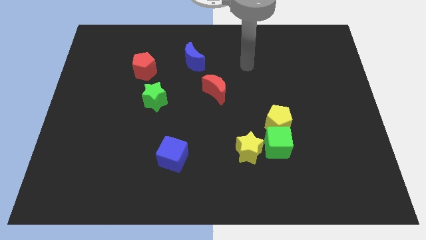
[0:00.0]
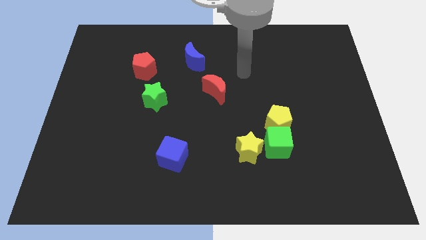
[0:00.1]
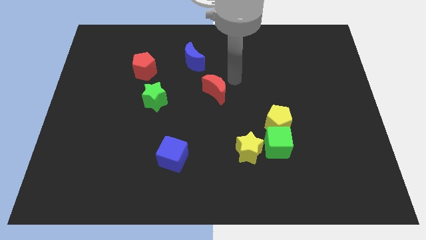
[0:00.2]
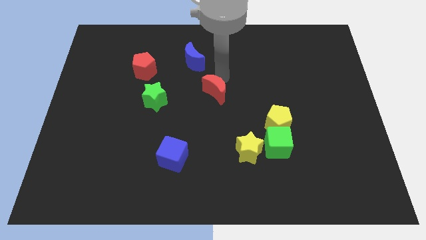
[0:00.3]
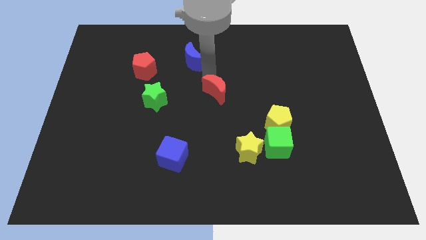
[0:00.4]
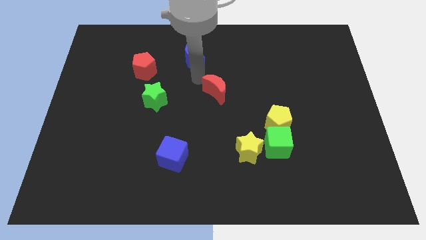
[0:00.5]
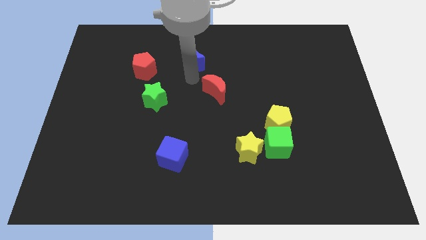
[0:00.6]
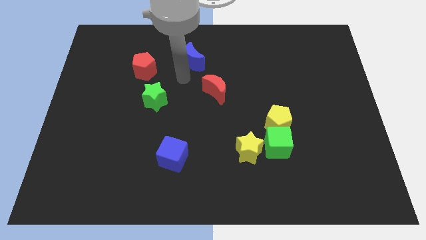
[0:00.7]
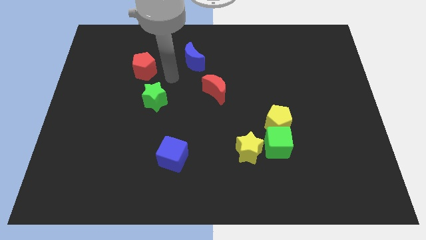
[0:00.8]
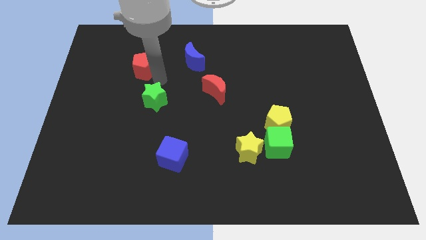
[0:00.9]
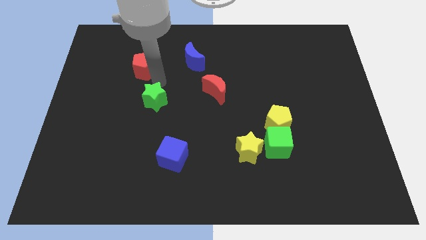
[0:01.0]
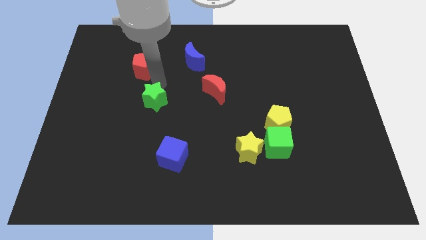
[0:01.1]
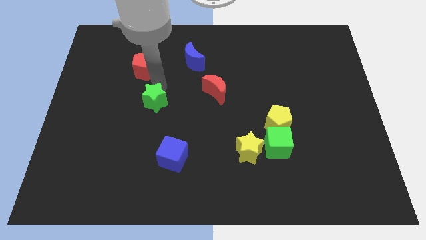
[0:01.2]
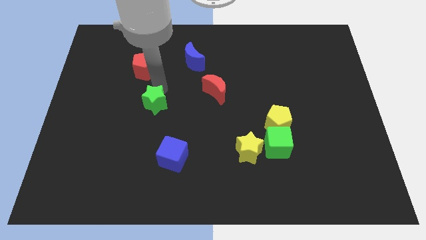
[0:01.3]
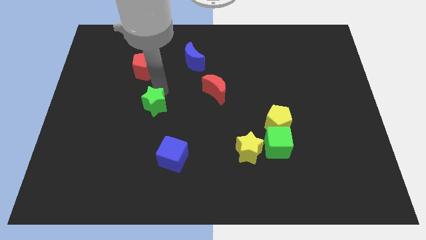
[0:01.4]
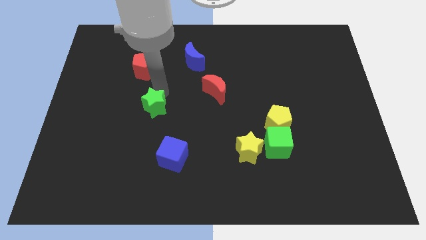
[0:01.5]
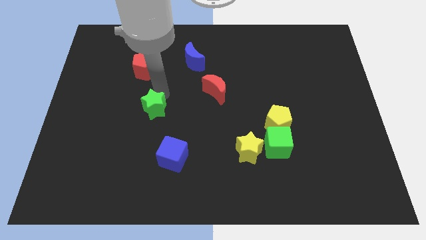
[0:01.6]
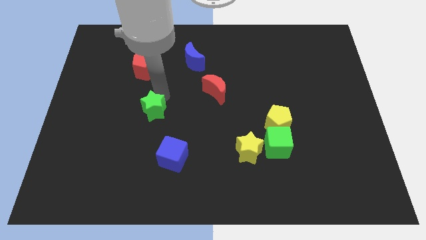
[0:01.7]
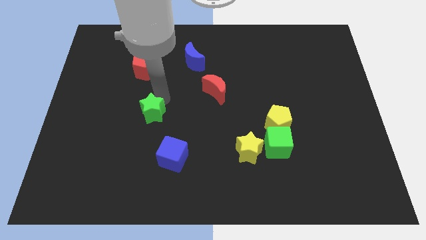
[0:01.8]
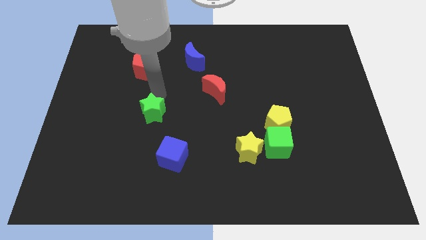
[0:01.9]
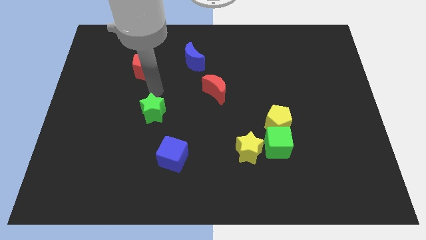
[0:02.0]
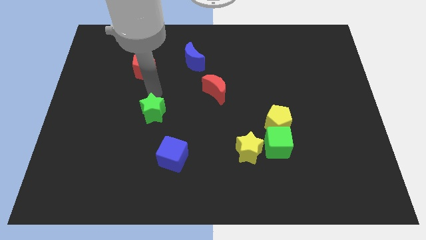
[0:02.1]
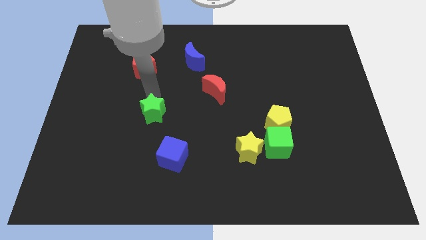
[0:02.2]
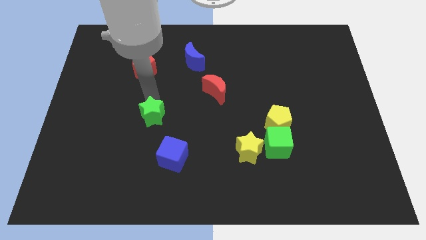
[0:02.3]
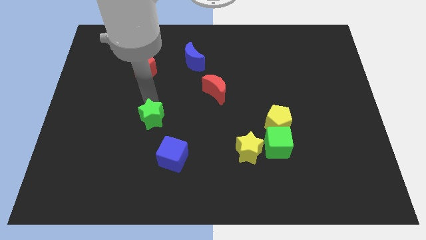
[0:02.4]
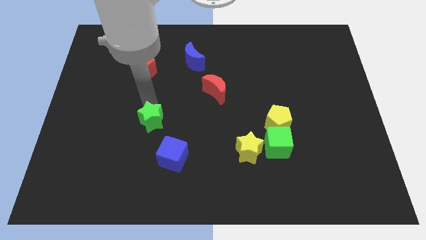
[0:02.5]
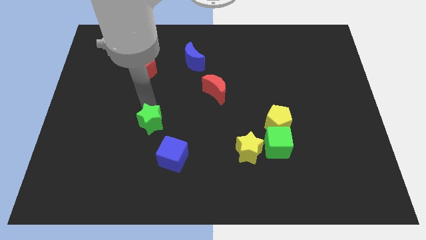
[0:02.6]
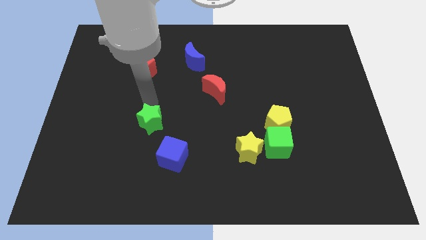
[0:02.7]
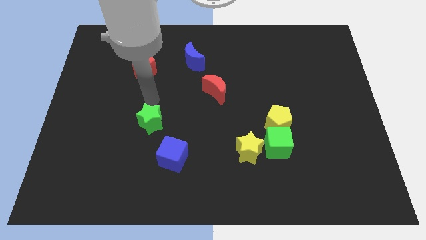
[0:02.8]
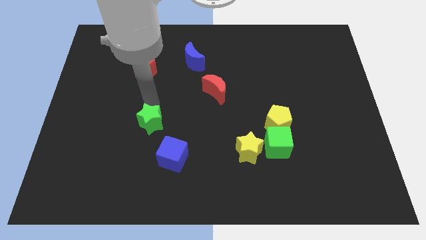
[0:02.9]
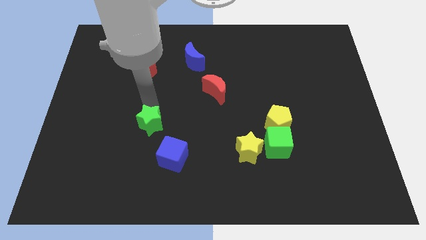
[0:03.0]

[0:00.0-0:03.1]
move the green star a little bit downwards

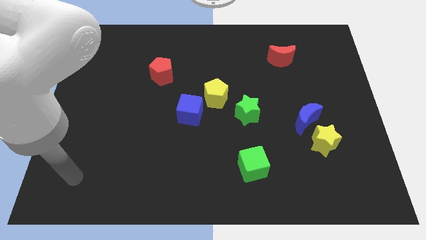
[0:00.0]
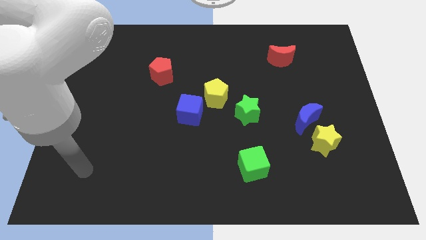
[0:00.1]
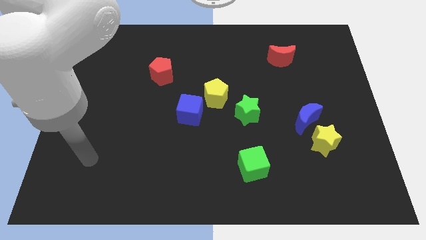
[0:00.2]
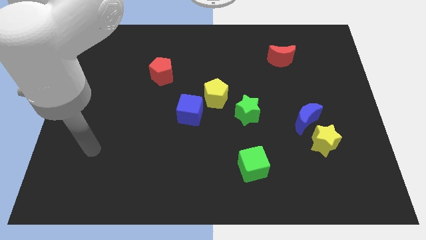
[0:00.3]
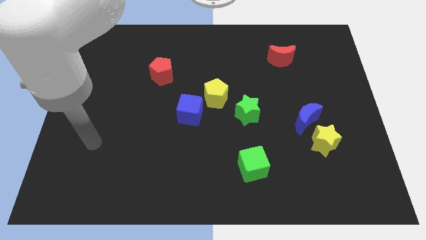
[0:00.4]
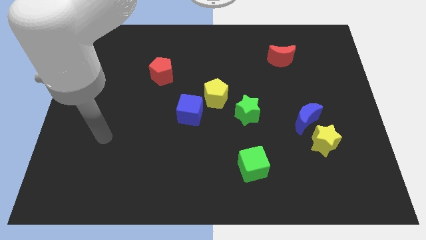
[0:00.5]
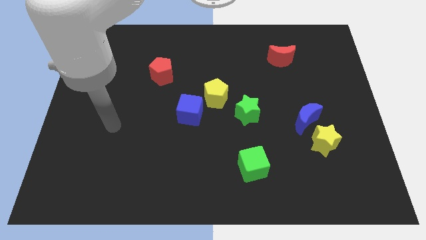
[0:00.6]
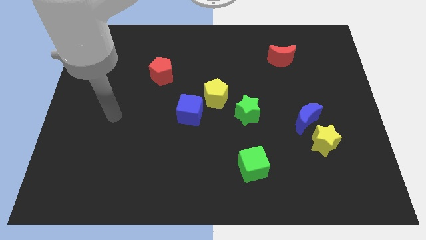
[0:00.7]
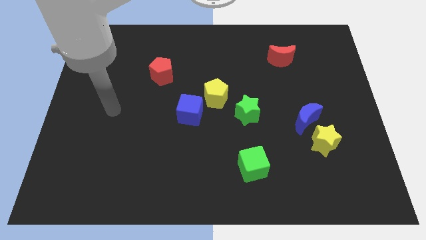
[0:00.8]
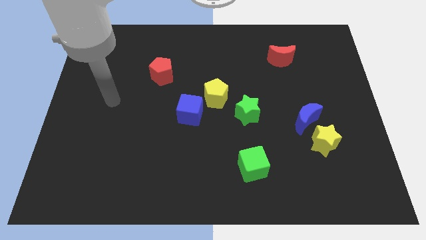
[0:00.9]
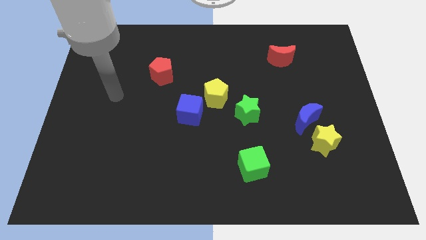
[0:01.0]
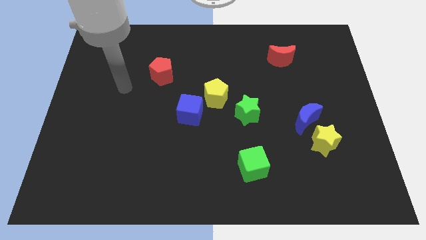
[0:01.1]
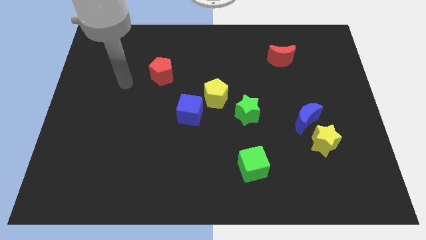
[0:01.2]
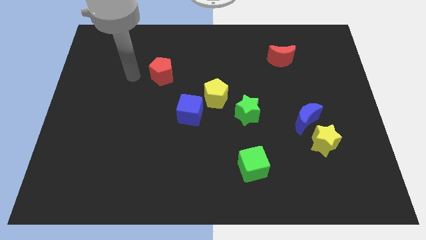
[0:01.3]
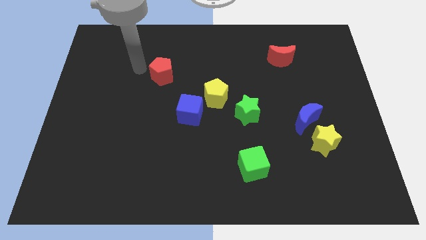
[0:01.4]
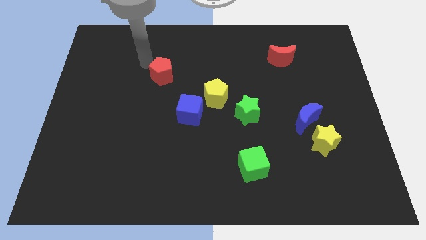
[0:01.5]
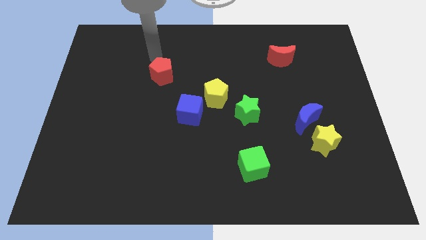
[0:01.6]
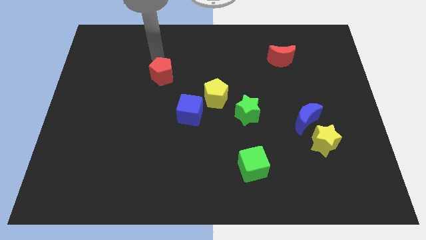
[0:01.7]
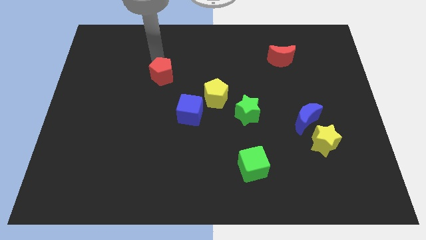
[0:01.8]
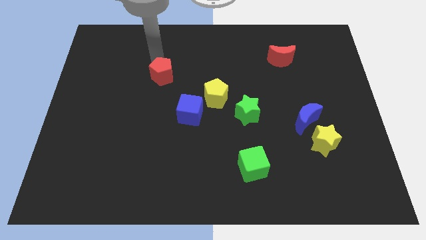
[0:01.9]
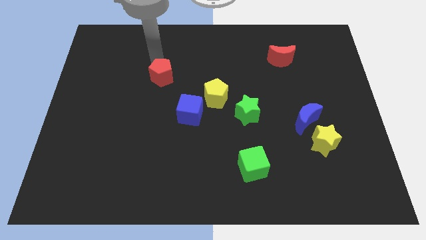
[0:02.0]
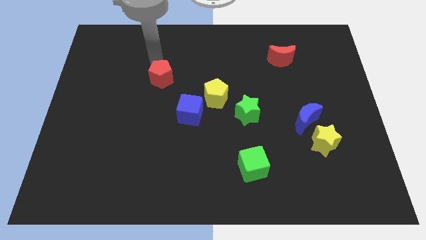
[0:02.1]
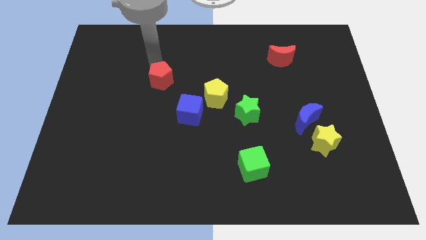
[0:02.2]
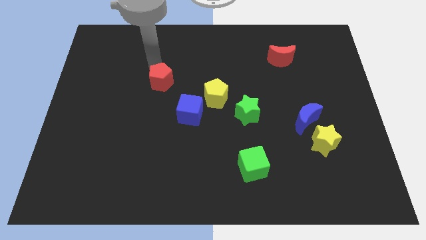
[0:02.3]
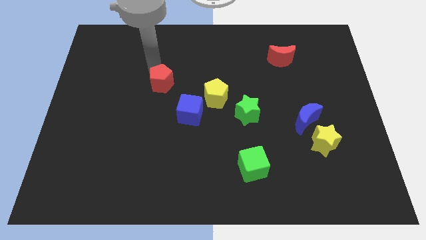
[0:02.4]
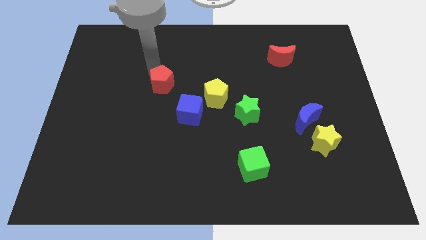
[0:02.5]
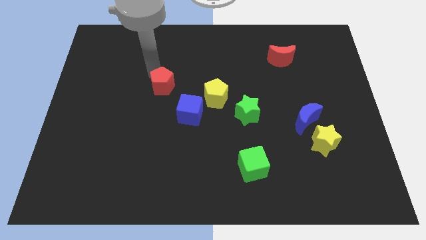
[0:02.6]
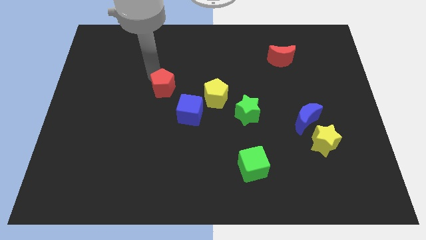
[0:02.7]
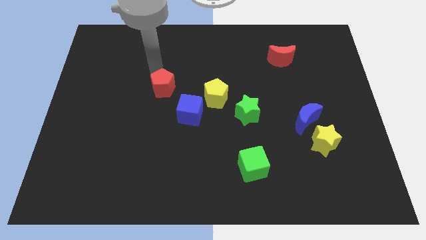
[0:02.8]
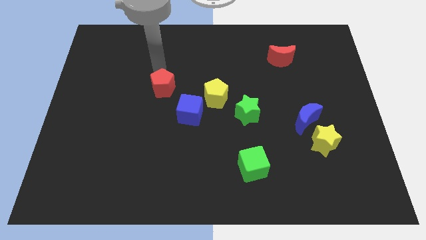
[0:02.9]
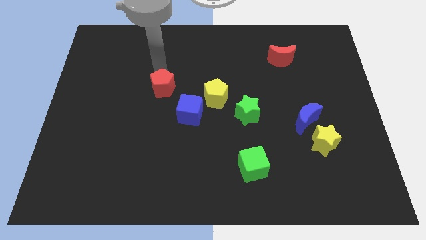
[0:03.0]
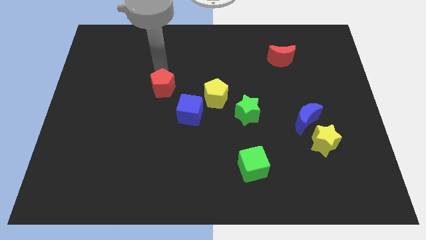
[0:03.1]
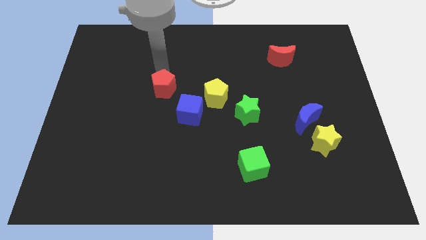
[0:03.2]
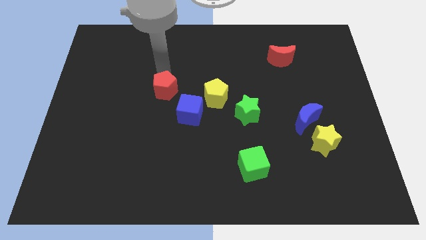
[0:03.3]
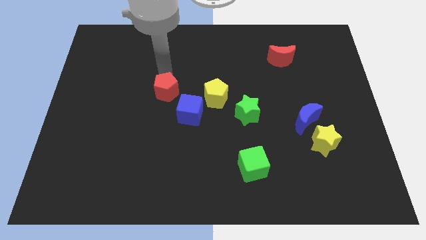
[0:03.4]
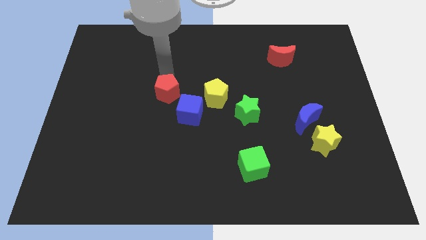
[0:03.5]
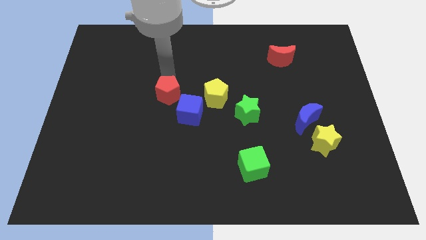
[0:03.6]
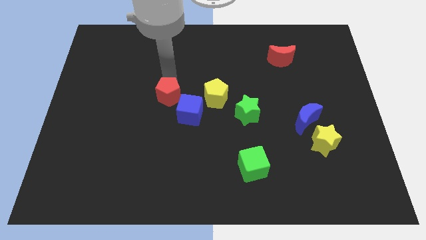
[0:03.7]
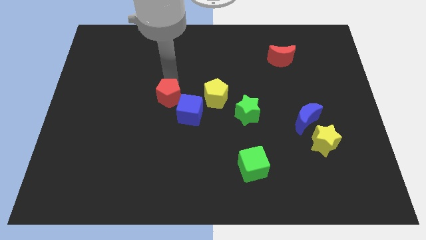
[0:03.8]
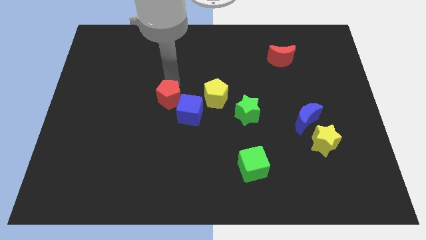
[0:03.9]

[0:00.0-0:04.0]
slide the red pentagon down and right a little

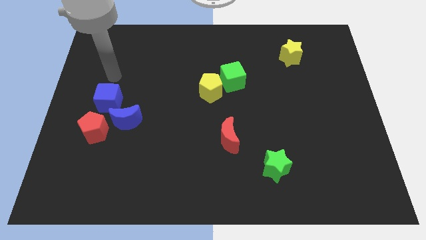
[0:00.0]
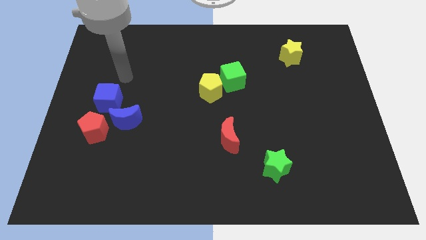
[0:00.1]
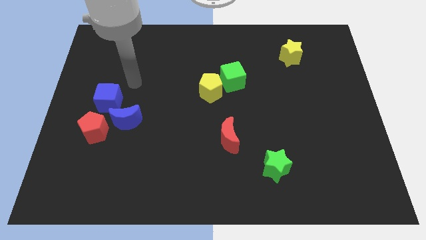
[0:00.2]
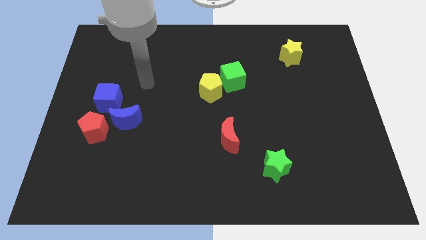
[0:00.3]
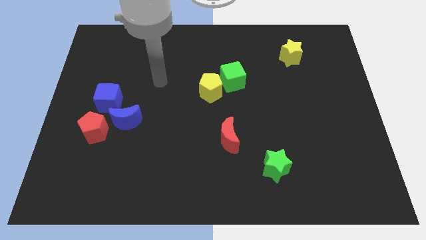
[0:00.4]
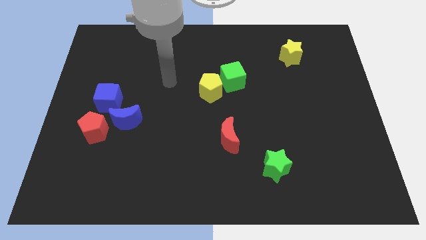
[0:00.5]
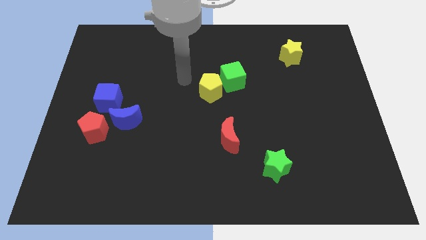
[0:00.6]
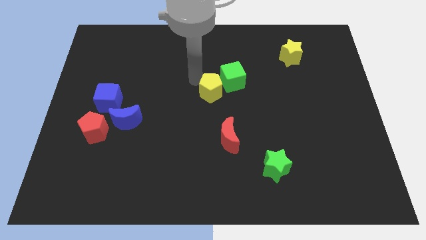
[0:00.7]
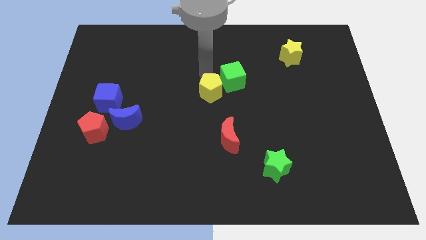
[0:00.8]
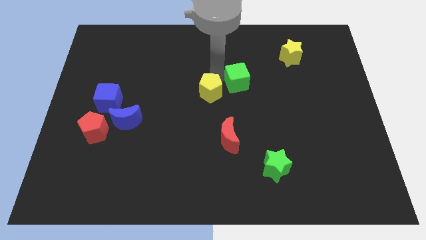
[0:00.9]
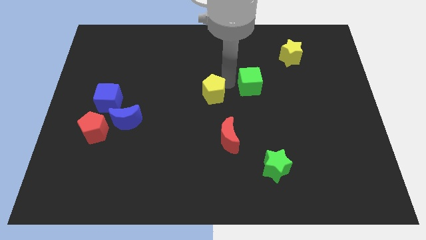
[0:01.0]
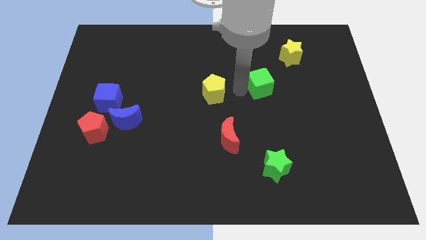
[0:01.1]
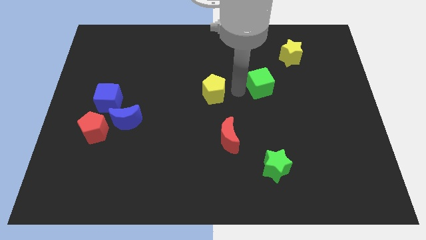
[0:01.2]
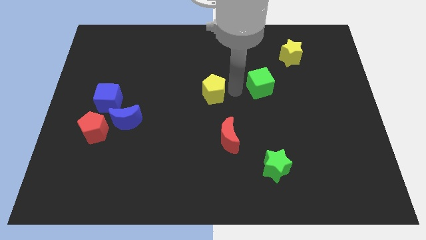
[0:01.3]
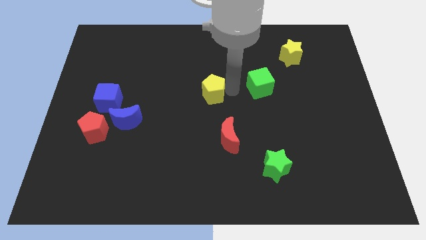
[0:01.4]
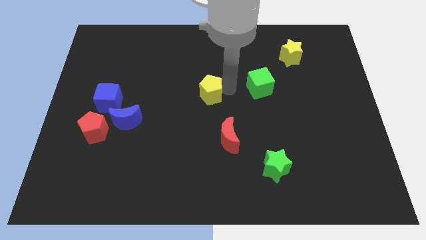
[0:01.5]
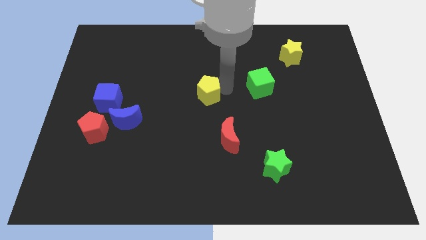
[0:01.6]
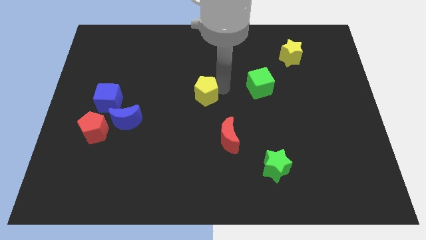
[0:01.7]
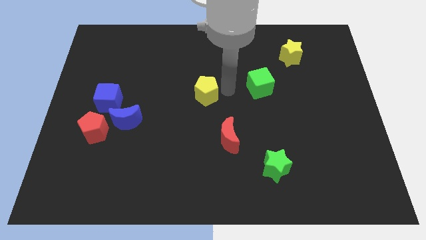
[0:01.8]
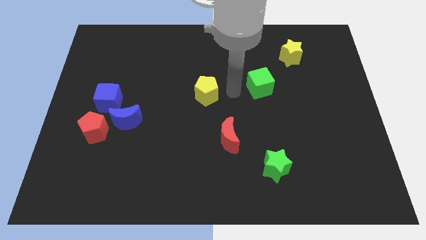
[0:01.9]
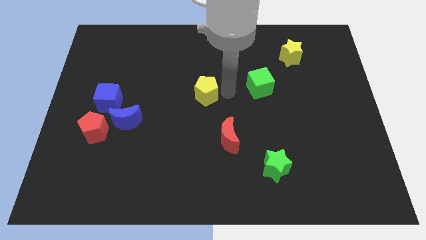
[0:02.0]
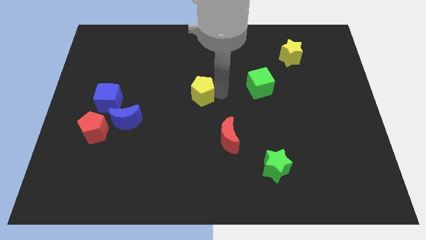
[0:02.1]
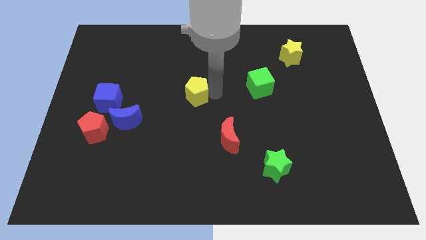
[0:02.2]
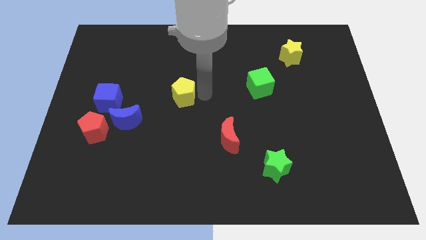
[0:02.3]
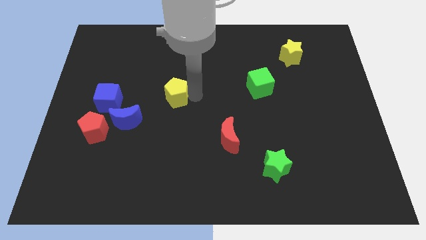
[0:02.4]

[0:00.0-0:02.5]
slide the yellow pentagon to the left a little
